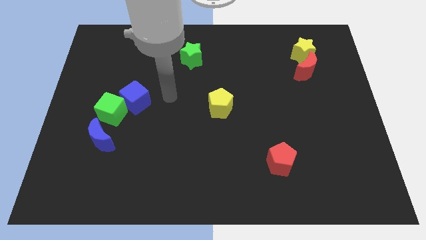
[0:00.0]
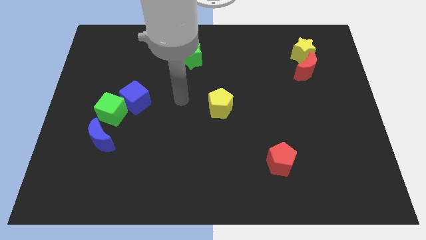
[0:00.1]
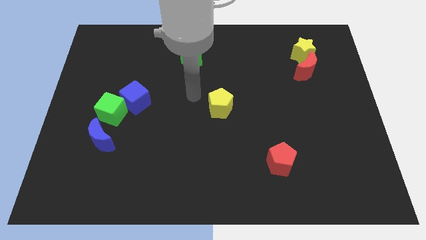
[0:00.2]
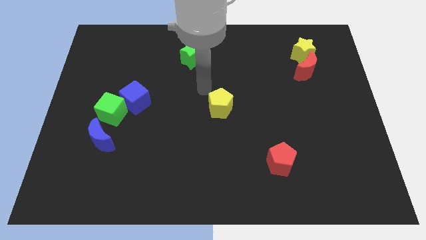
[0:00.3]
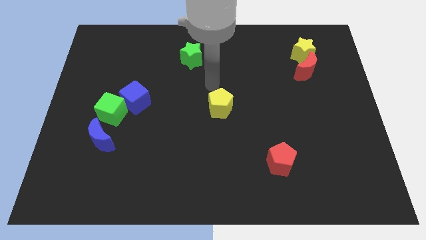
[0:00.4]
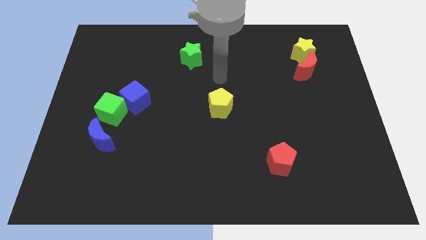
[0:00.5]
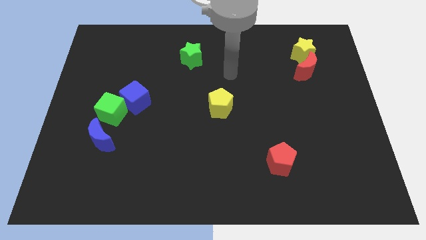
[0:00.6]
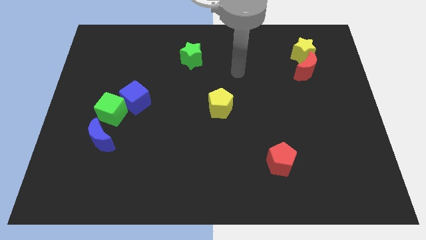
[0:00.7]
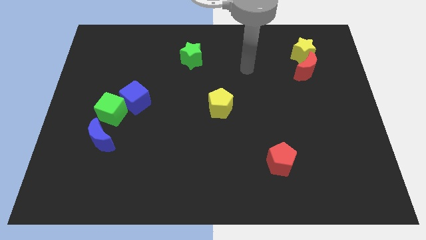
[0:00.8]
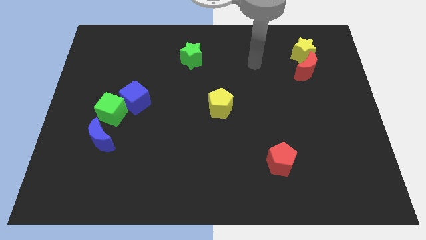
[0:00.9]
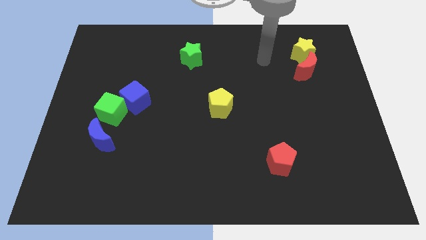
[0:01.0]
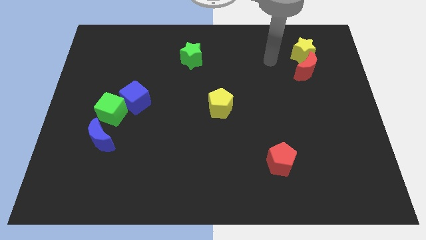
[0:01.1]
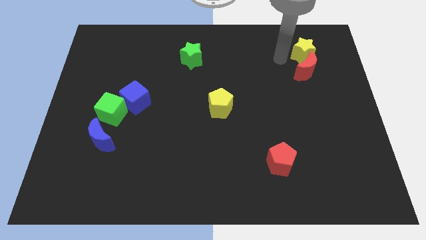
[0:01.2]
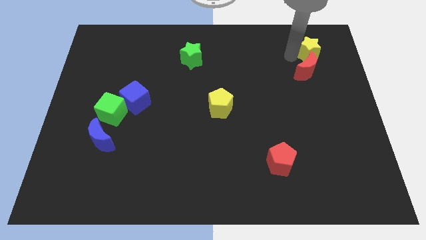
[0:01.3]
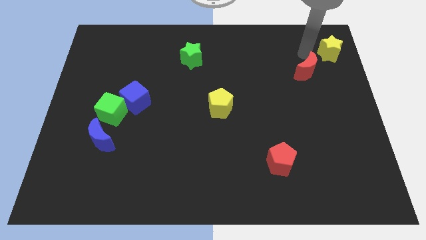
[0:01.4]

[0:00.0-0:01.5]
pull the red moon apart from the yellow star

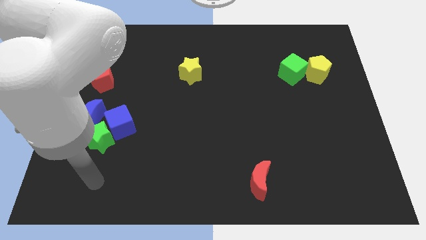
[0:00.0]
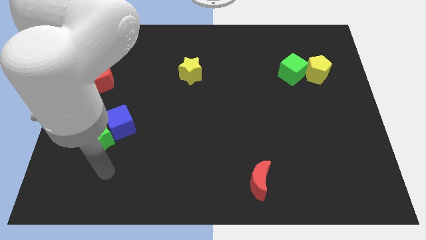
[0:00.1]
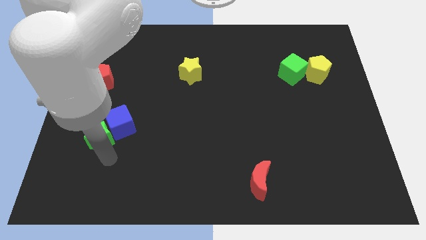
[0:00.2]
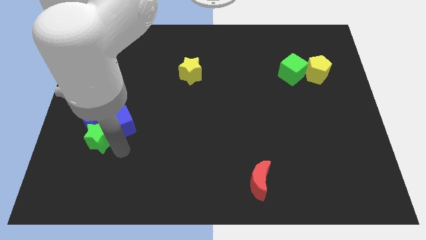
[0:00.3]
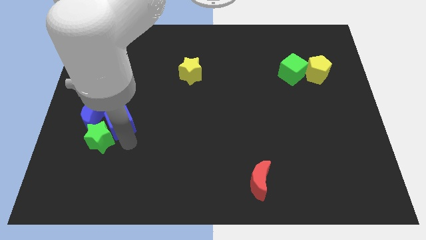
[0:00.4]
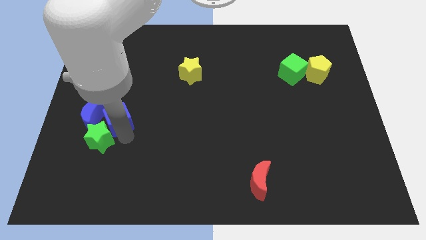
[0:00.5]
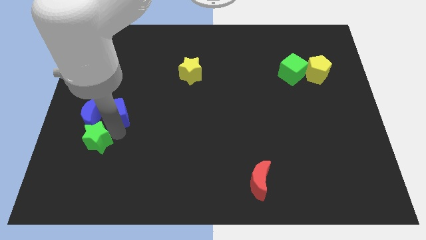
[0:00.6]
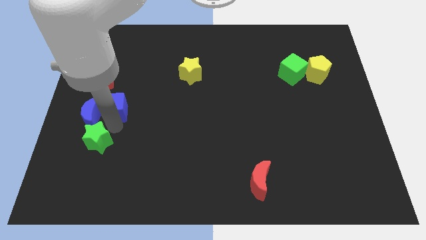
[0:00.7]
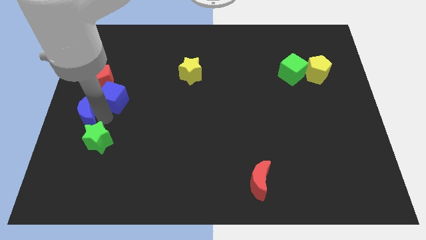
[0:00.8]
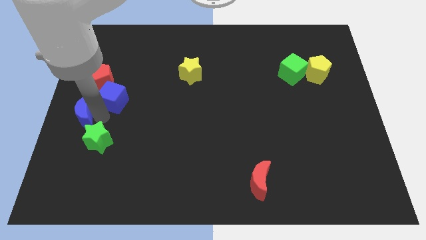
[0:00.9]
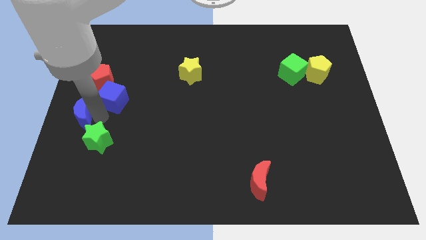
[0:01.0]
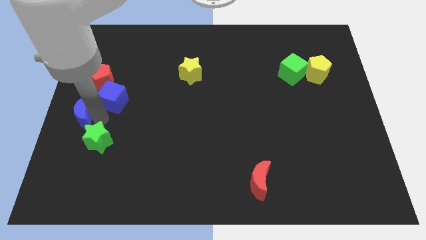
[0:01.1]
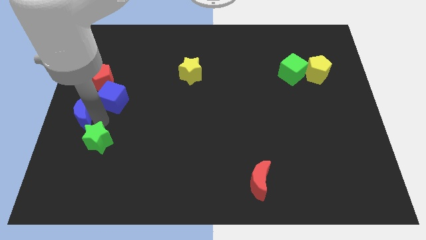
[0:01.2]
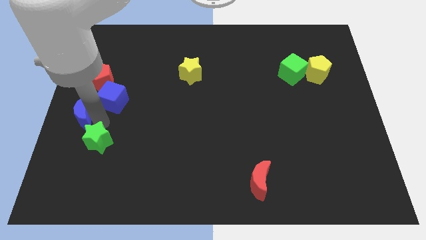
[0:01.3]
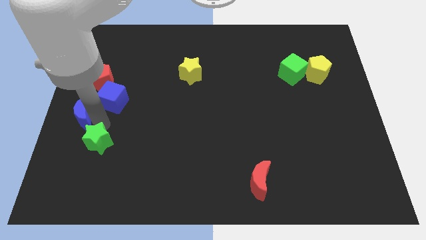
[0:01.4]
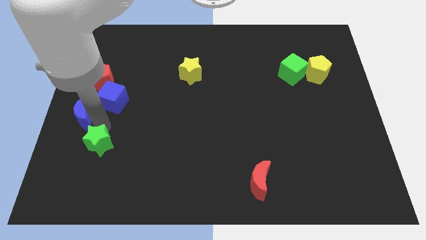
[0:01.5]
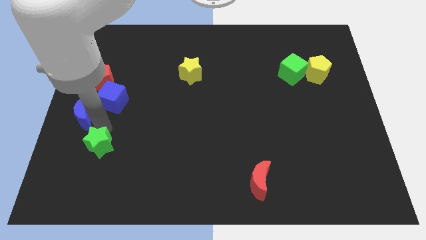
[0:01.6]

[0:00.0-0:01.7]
pull the green star apart from the blue cube and blue moon

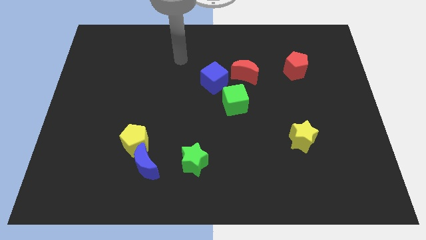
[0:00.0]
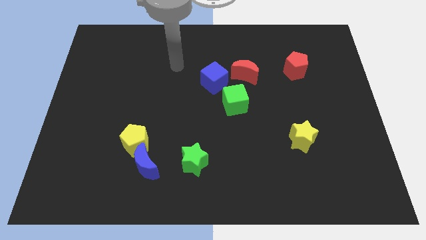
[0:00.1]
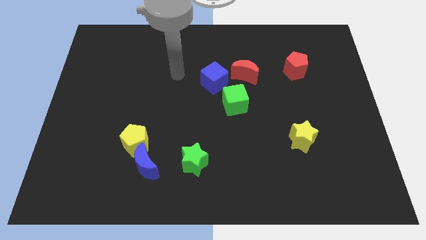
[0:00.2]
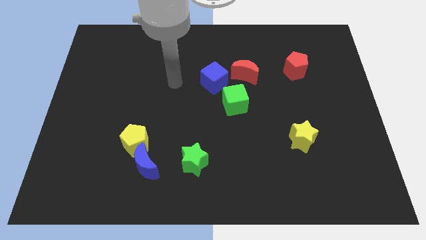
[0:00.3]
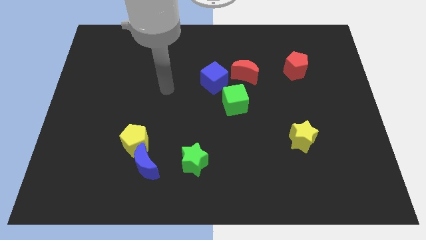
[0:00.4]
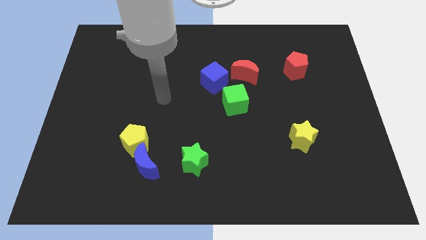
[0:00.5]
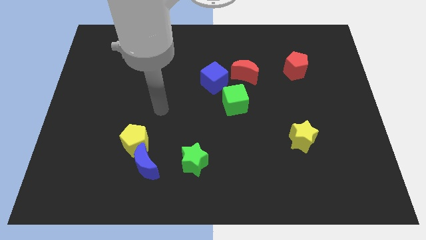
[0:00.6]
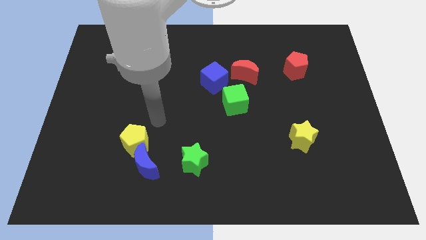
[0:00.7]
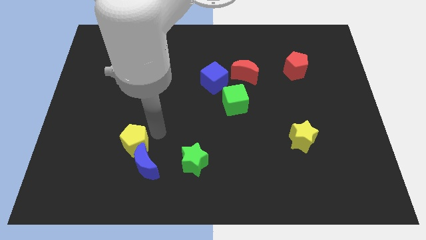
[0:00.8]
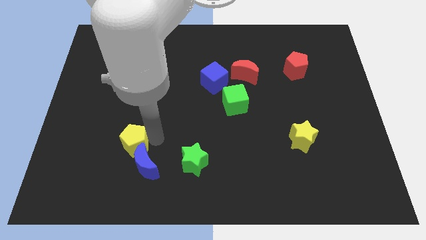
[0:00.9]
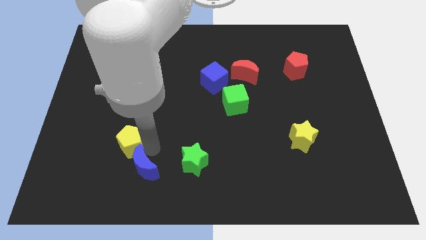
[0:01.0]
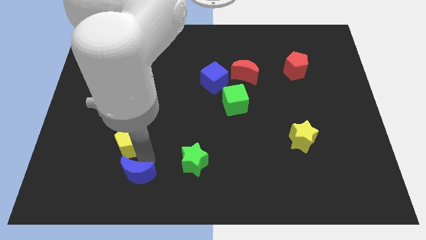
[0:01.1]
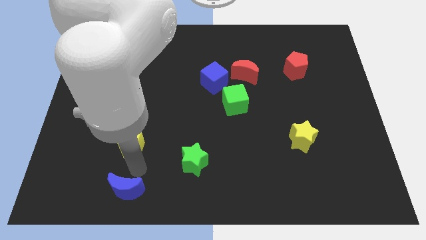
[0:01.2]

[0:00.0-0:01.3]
separate the yellow pentagon from the blue moon

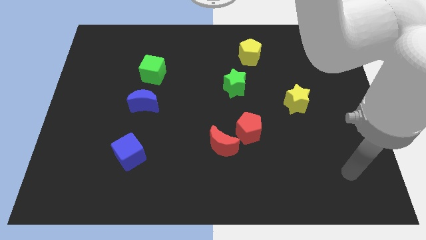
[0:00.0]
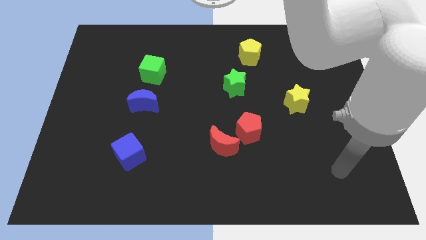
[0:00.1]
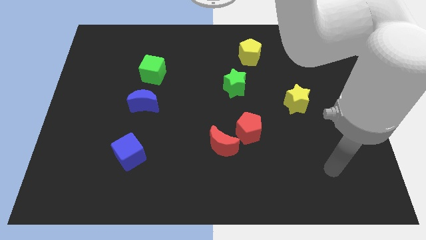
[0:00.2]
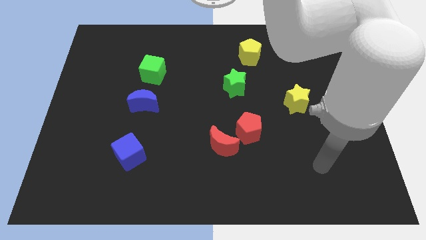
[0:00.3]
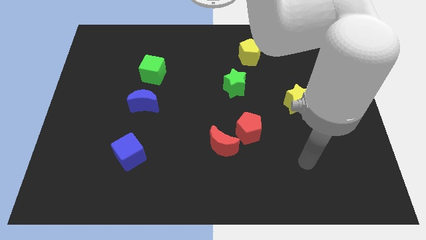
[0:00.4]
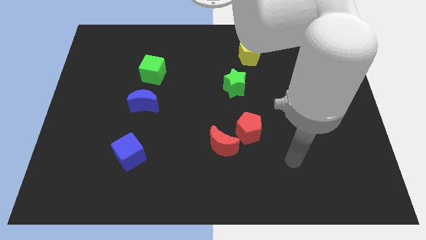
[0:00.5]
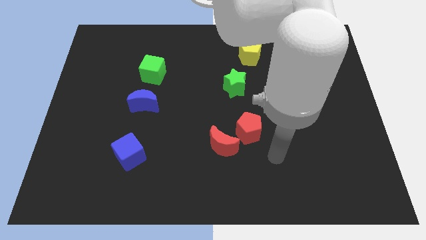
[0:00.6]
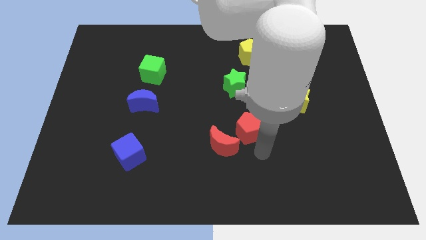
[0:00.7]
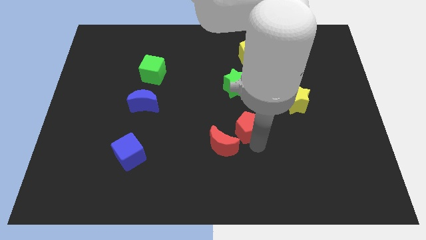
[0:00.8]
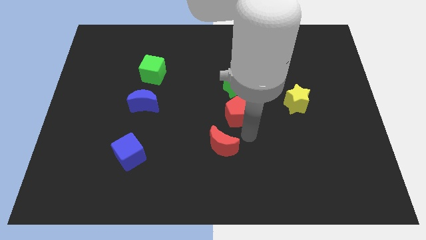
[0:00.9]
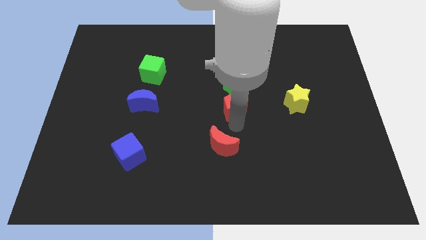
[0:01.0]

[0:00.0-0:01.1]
pull the red moon apart from the red pentagon

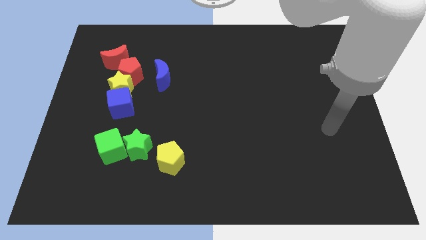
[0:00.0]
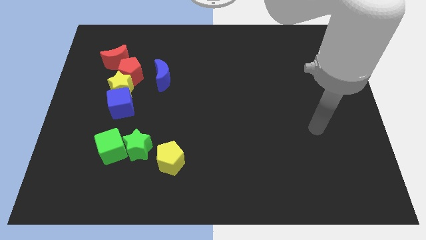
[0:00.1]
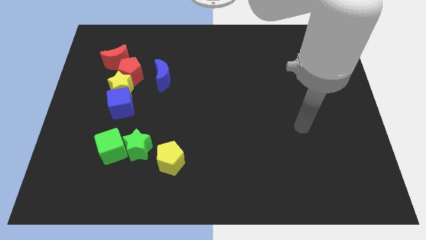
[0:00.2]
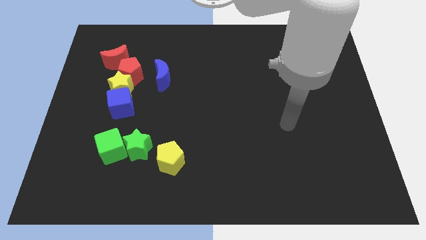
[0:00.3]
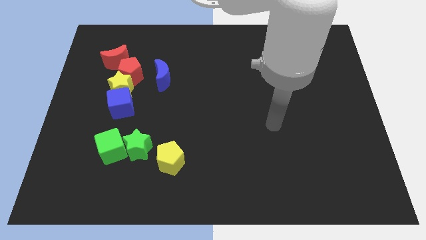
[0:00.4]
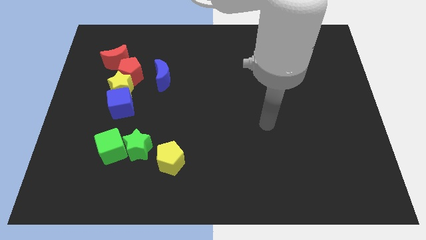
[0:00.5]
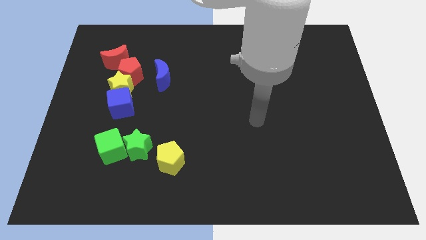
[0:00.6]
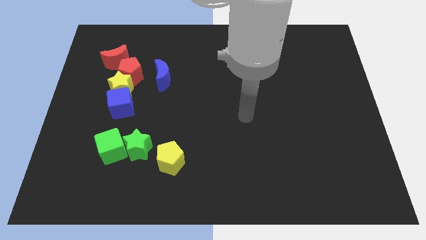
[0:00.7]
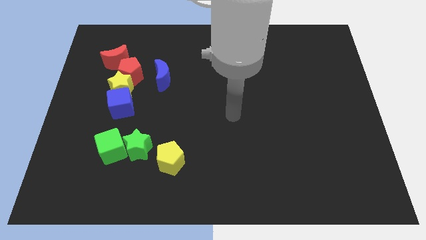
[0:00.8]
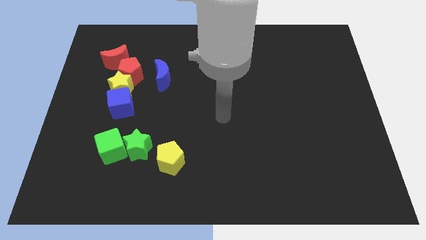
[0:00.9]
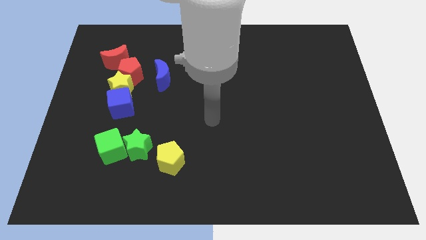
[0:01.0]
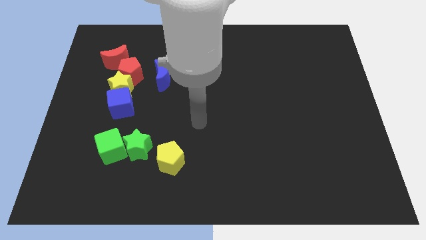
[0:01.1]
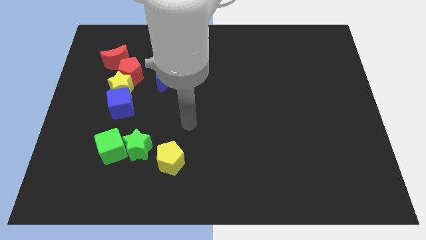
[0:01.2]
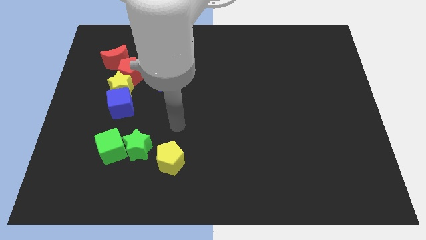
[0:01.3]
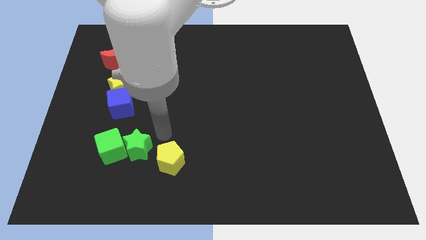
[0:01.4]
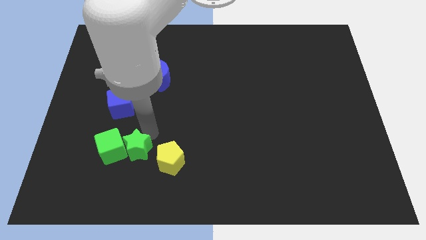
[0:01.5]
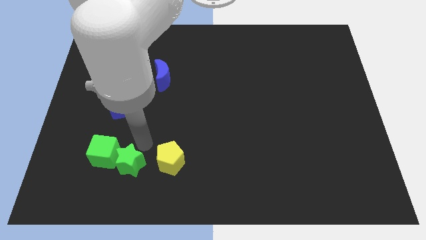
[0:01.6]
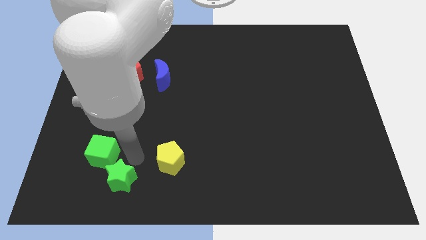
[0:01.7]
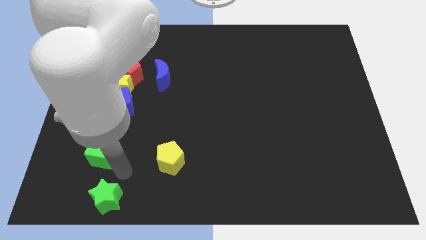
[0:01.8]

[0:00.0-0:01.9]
pull the green cube apart from the green star

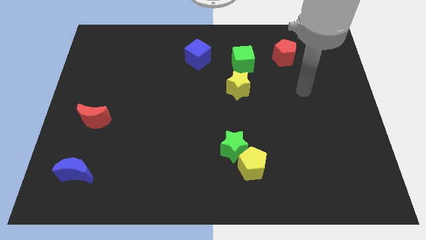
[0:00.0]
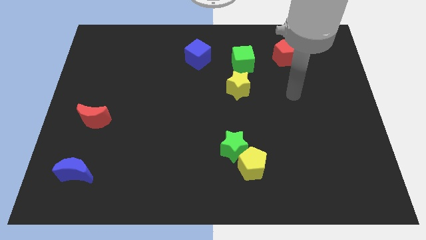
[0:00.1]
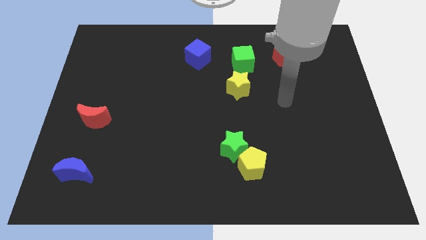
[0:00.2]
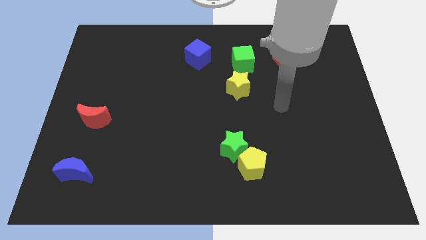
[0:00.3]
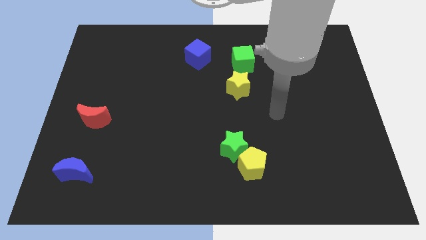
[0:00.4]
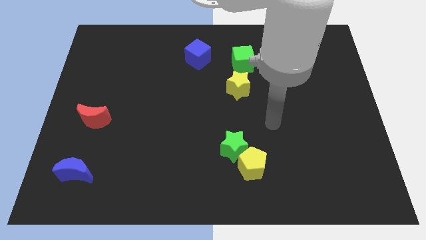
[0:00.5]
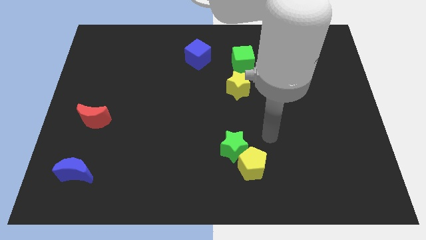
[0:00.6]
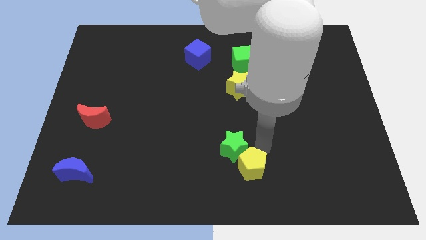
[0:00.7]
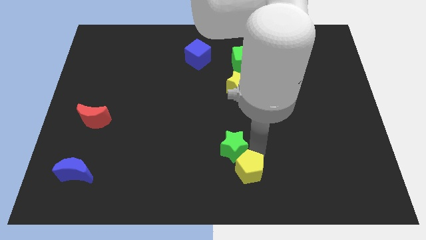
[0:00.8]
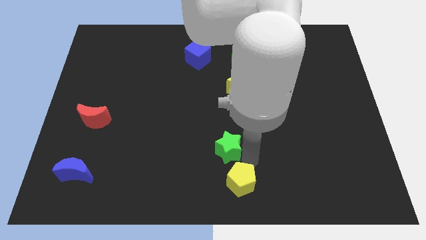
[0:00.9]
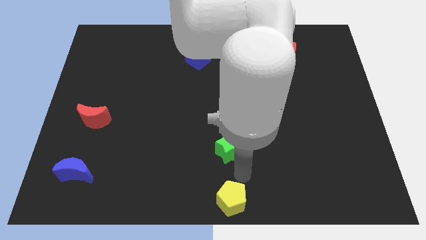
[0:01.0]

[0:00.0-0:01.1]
separate the green star from the yellow pentagon

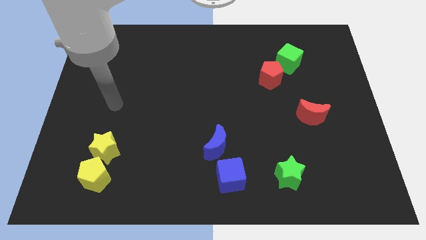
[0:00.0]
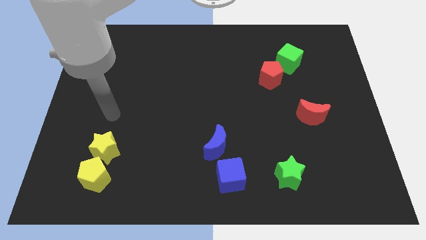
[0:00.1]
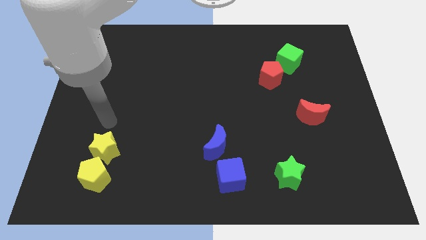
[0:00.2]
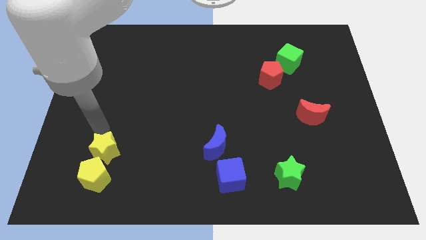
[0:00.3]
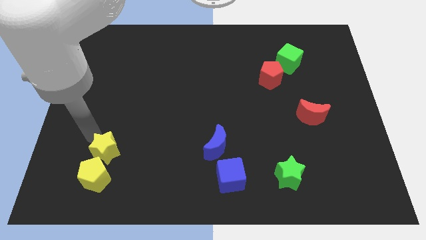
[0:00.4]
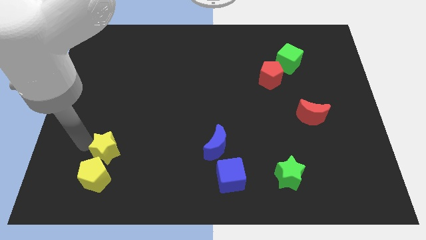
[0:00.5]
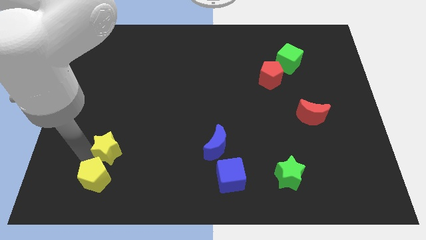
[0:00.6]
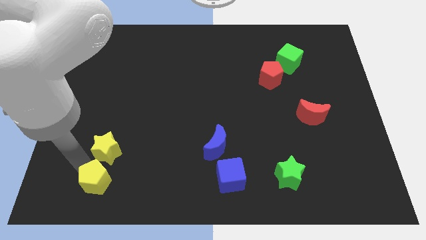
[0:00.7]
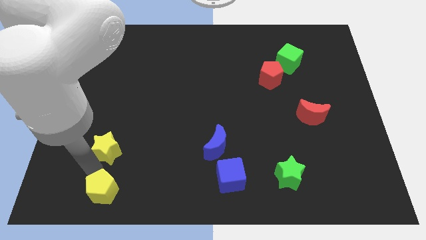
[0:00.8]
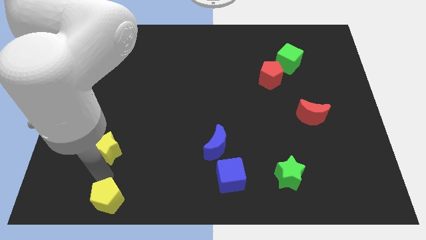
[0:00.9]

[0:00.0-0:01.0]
separate the yellow star from the yellow pentagon
